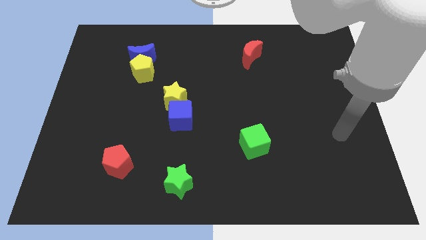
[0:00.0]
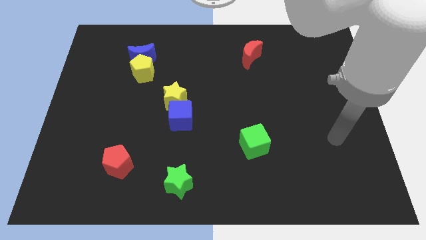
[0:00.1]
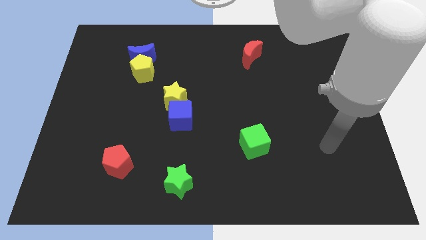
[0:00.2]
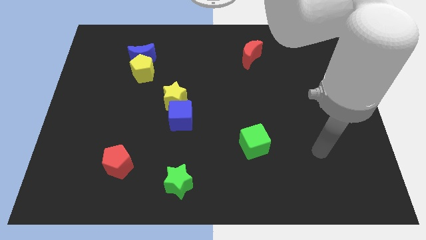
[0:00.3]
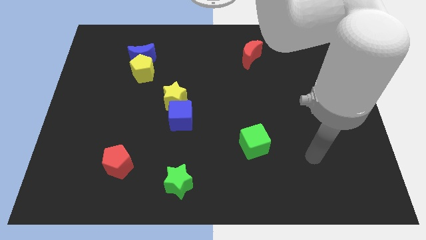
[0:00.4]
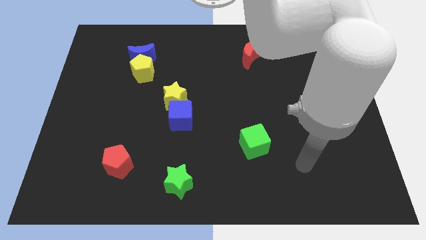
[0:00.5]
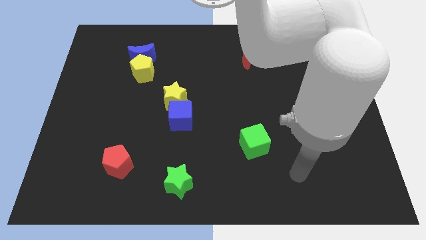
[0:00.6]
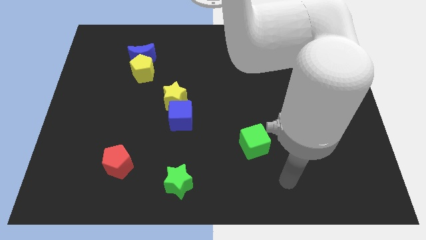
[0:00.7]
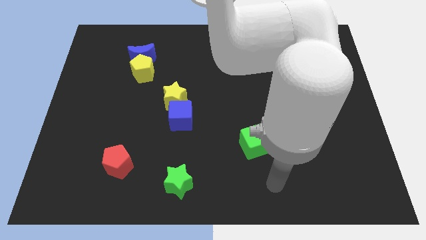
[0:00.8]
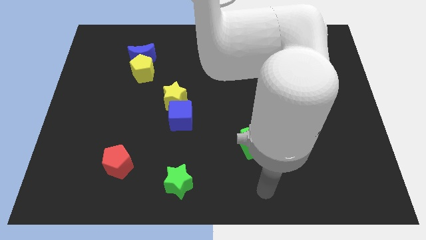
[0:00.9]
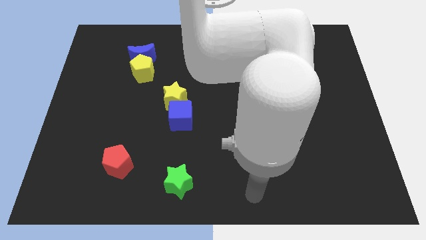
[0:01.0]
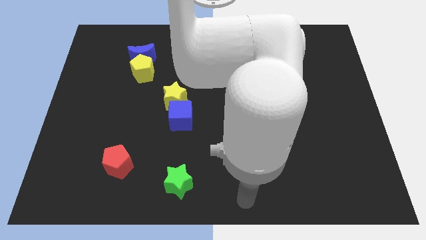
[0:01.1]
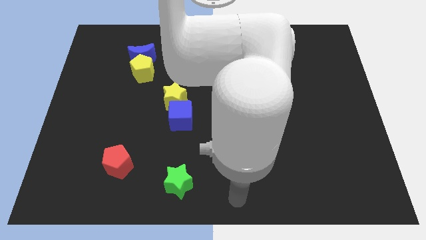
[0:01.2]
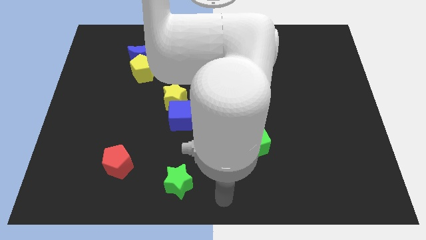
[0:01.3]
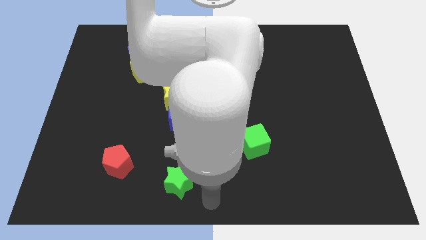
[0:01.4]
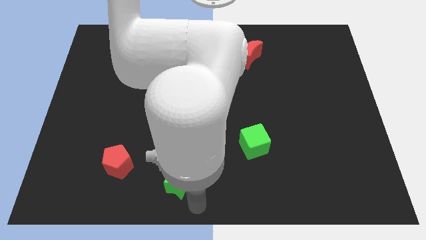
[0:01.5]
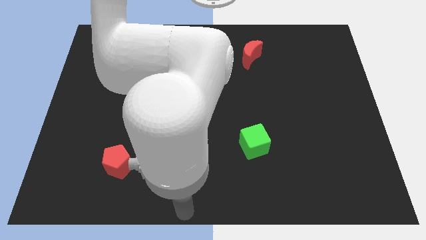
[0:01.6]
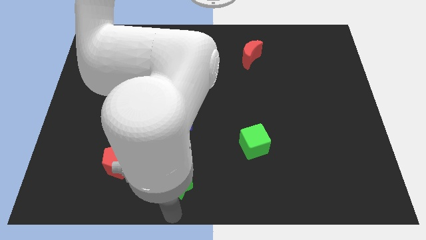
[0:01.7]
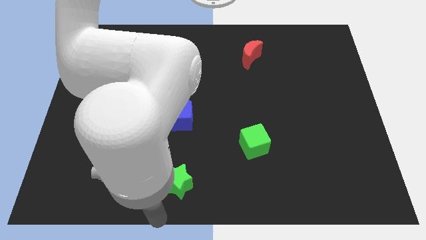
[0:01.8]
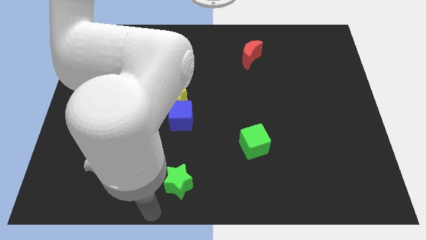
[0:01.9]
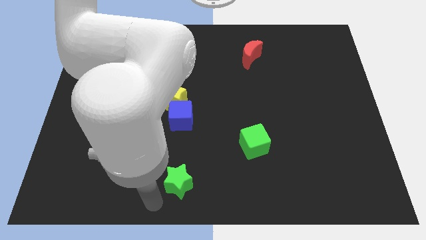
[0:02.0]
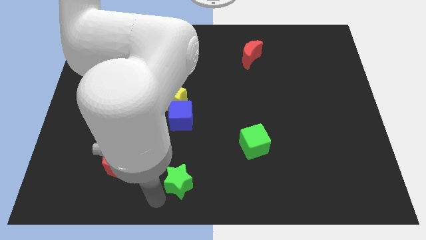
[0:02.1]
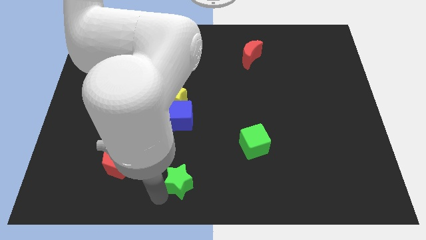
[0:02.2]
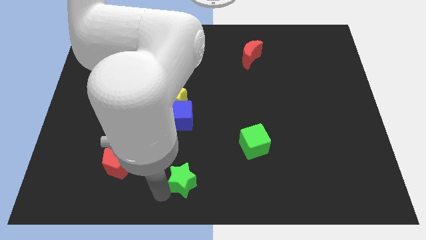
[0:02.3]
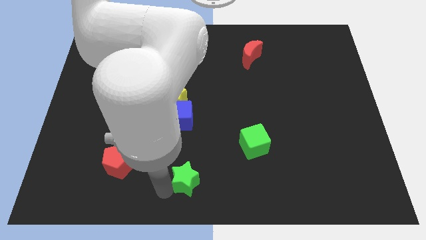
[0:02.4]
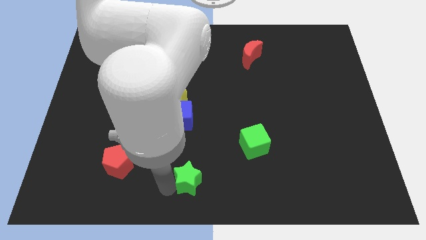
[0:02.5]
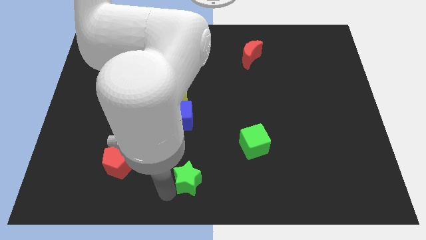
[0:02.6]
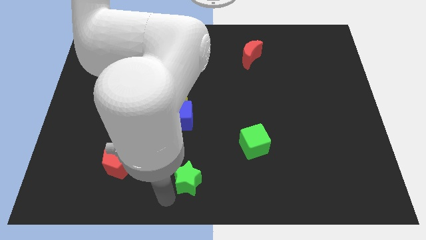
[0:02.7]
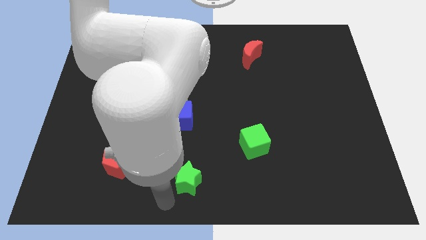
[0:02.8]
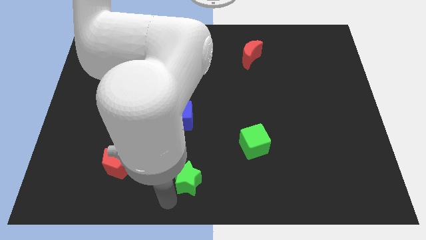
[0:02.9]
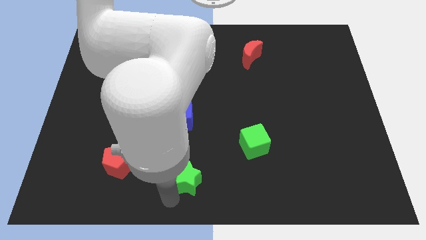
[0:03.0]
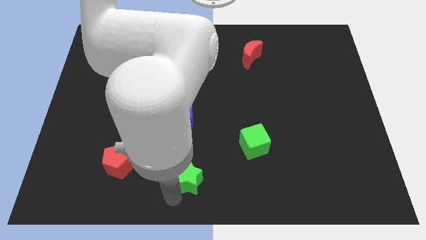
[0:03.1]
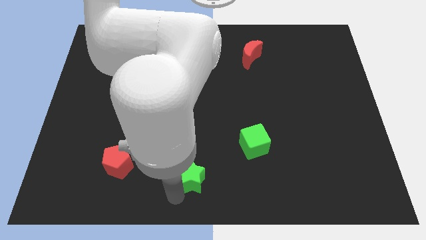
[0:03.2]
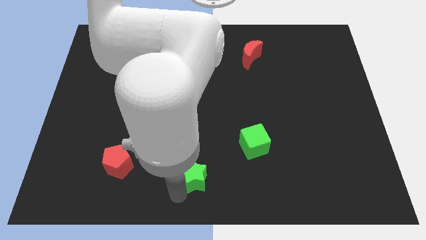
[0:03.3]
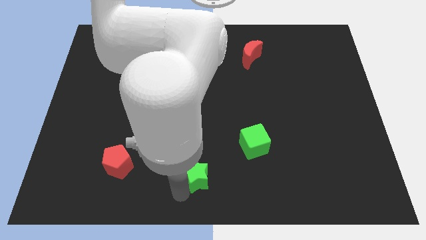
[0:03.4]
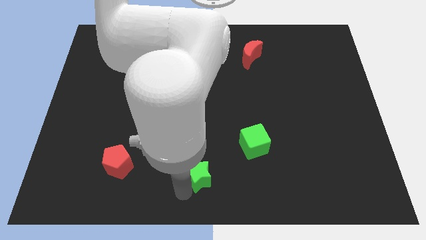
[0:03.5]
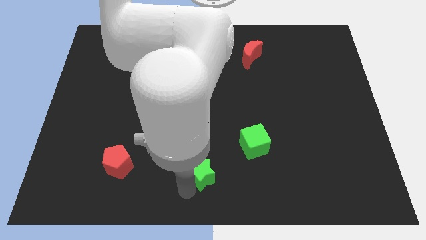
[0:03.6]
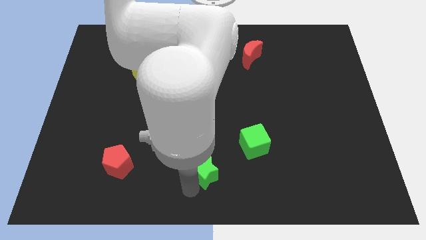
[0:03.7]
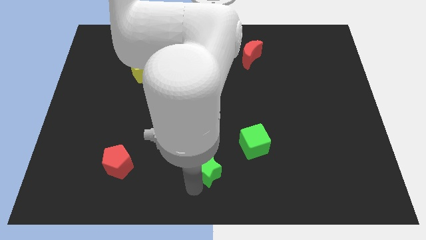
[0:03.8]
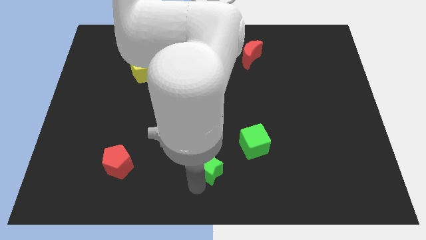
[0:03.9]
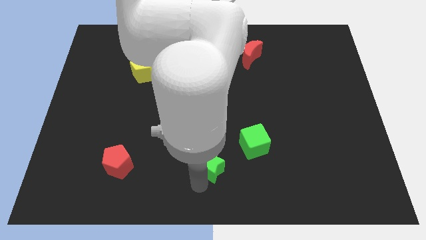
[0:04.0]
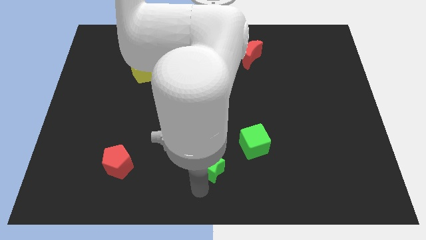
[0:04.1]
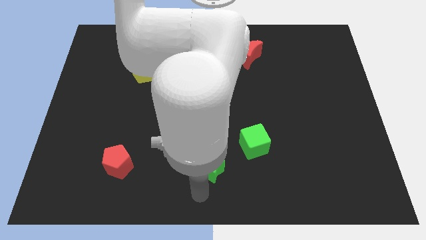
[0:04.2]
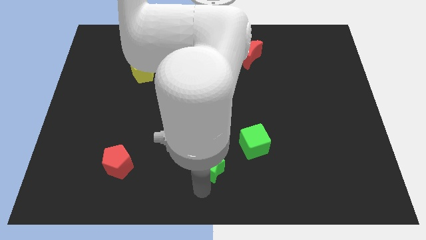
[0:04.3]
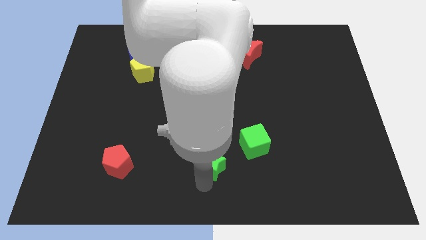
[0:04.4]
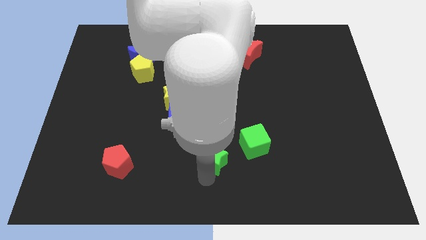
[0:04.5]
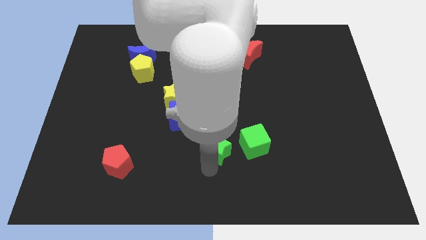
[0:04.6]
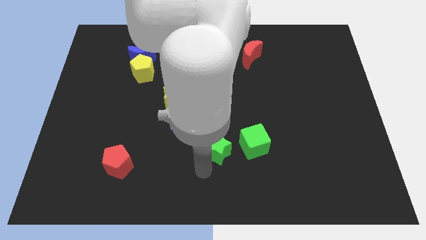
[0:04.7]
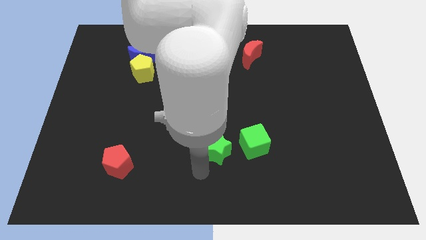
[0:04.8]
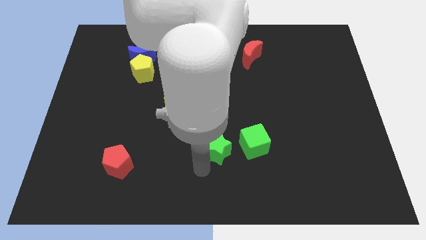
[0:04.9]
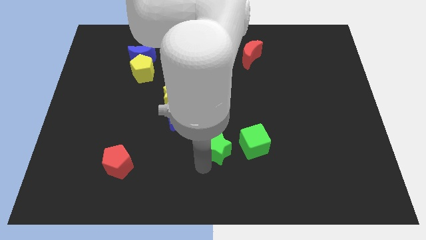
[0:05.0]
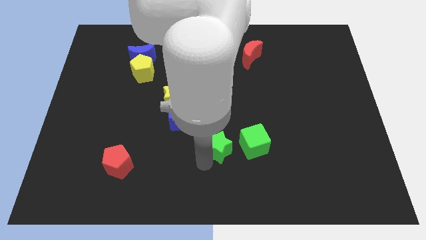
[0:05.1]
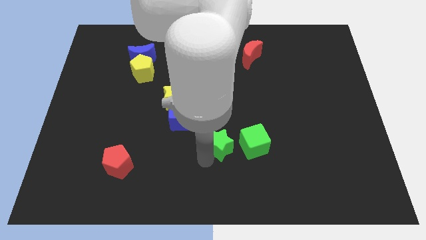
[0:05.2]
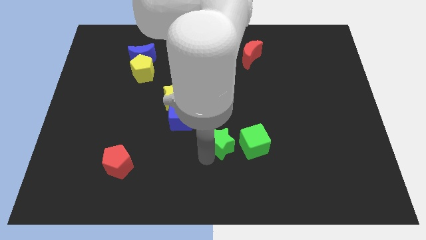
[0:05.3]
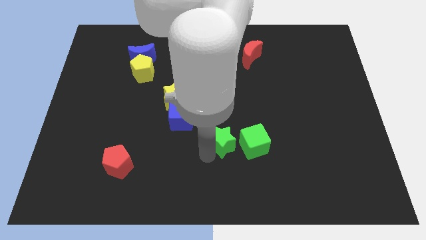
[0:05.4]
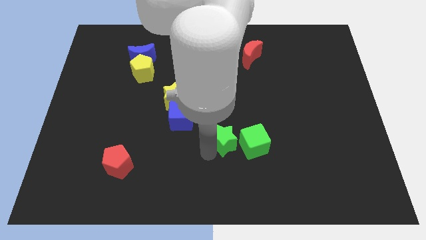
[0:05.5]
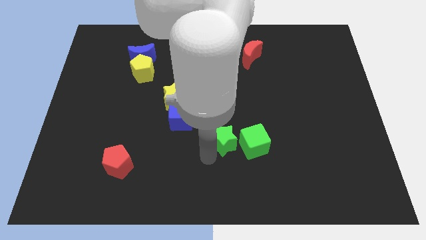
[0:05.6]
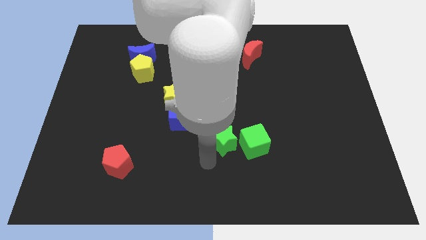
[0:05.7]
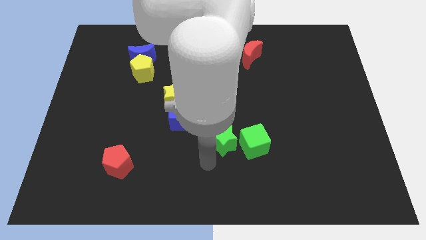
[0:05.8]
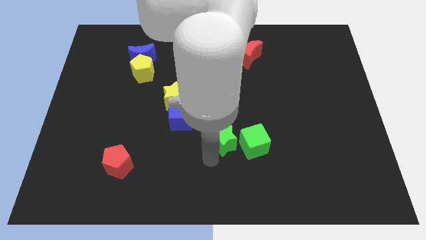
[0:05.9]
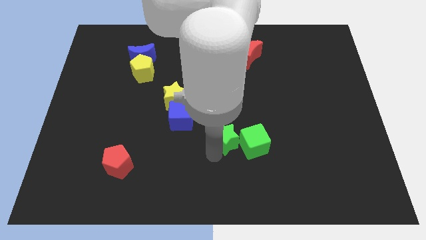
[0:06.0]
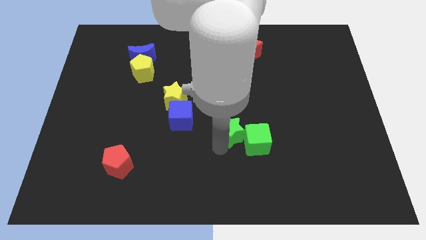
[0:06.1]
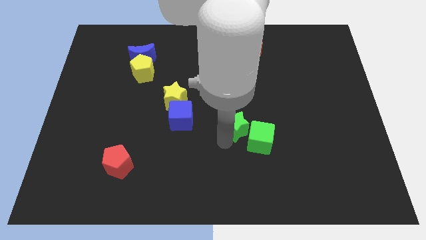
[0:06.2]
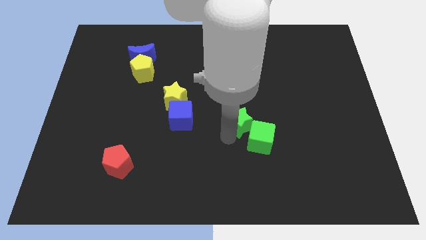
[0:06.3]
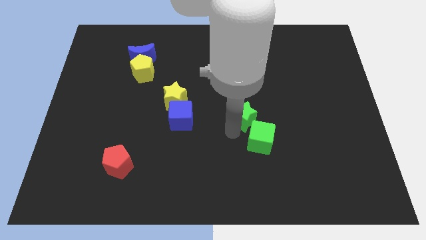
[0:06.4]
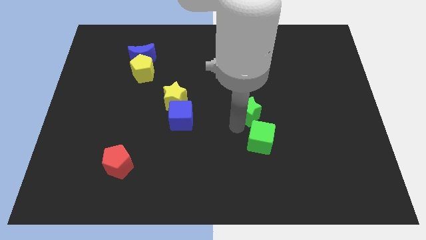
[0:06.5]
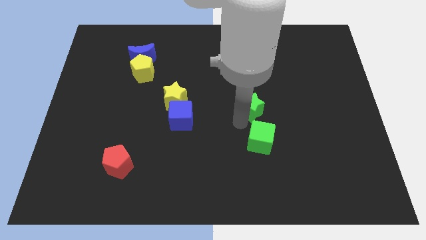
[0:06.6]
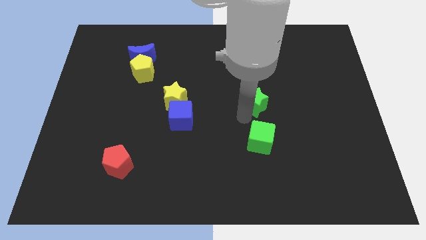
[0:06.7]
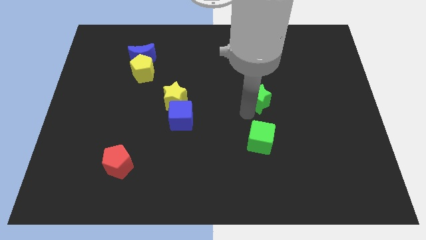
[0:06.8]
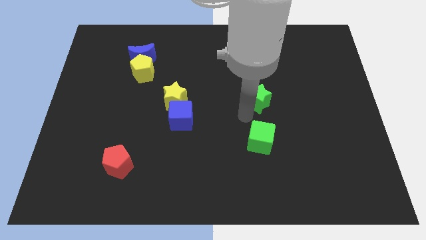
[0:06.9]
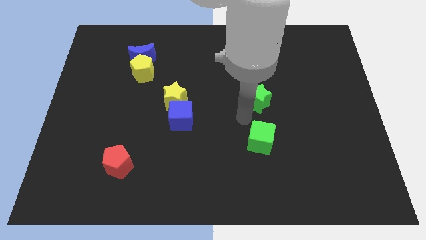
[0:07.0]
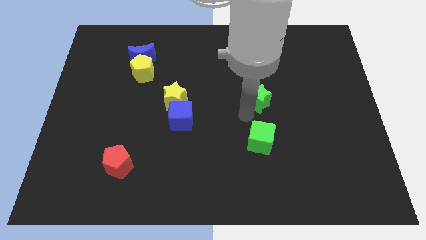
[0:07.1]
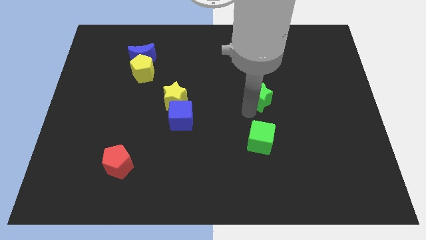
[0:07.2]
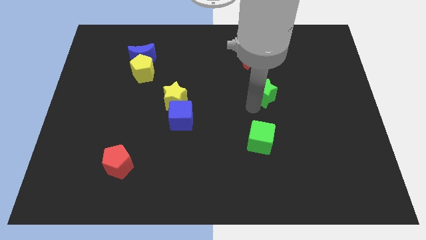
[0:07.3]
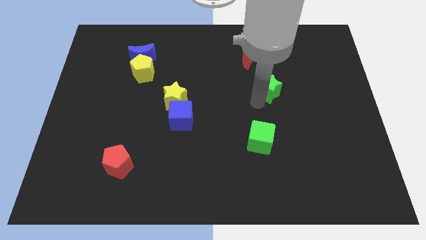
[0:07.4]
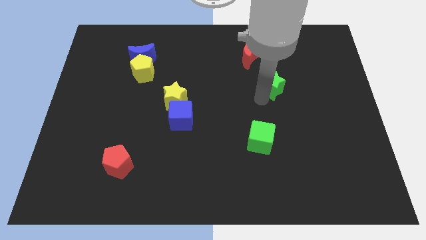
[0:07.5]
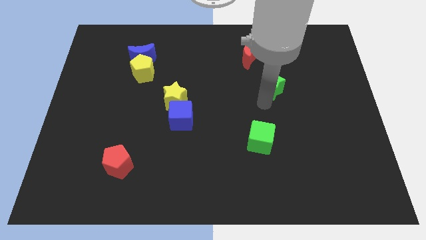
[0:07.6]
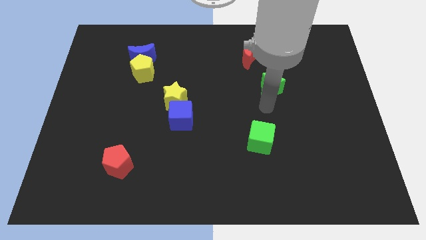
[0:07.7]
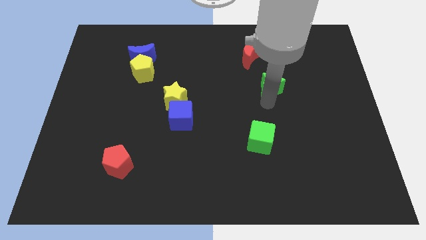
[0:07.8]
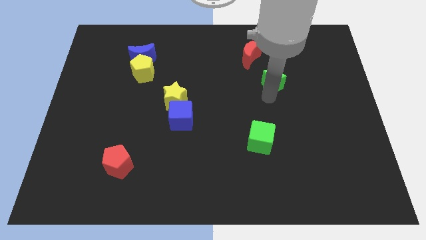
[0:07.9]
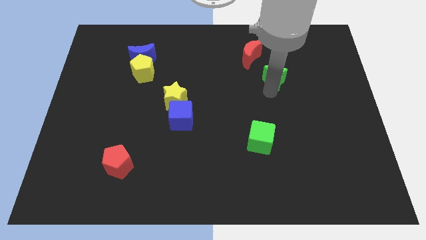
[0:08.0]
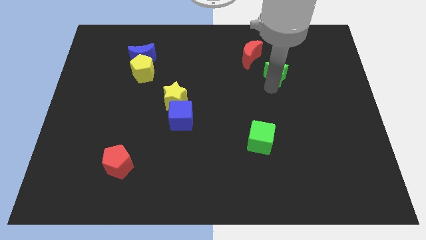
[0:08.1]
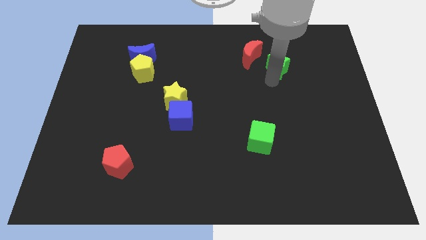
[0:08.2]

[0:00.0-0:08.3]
slide the green star to the right of the red moon
